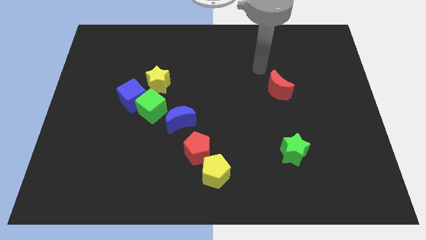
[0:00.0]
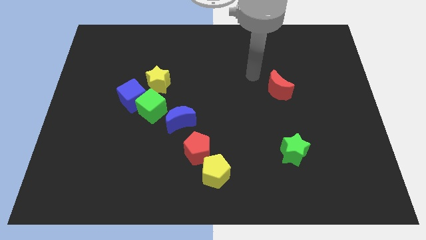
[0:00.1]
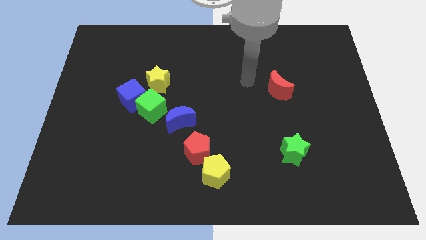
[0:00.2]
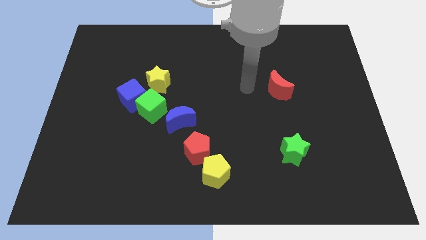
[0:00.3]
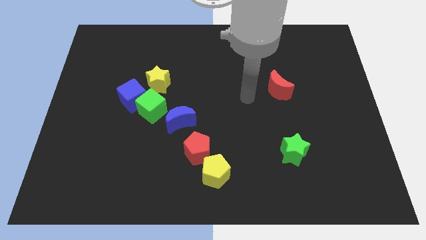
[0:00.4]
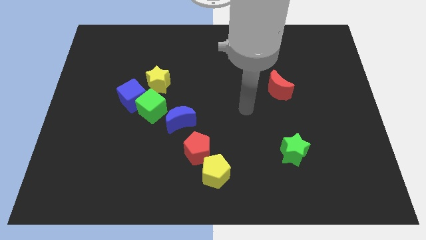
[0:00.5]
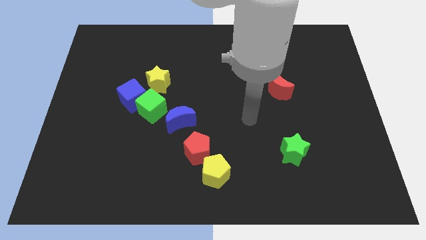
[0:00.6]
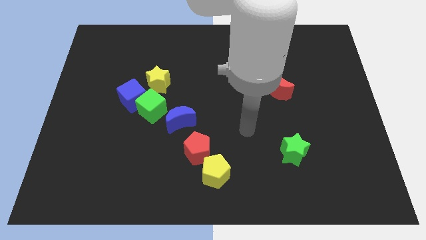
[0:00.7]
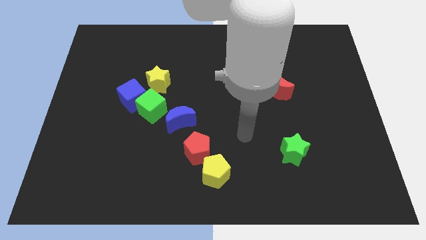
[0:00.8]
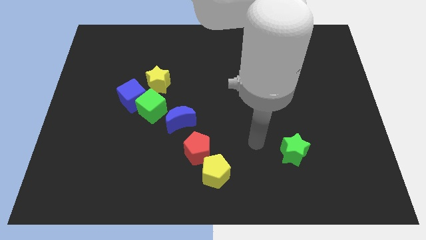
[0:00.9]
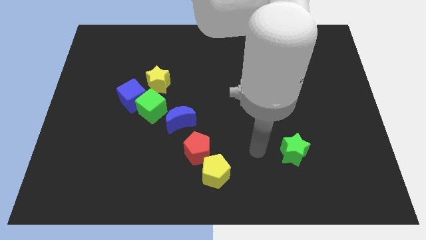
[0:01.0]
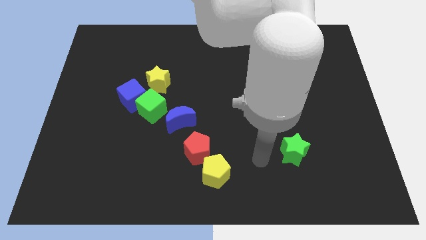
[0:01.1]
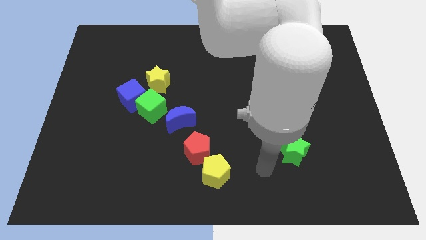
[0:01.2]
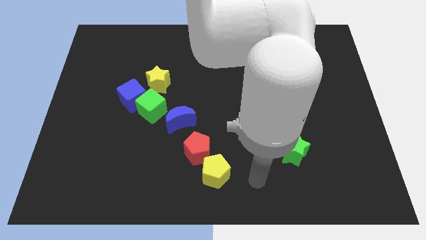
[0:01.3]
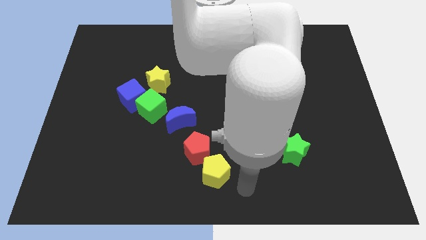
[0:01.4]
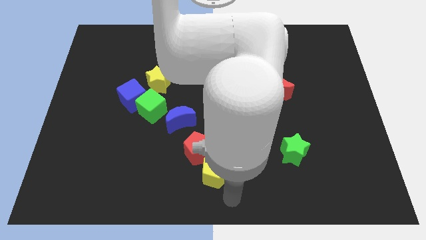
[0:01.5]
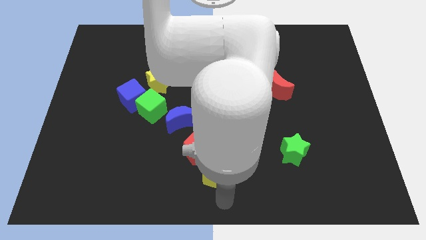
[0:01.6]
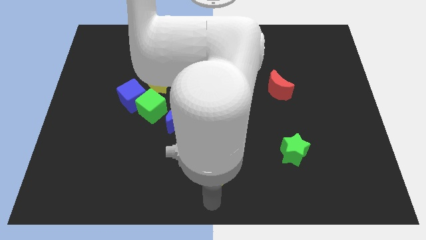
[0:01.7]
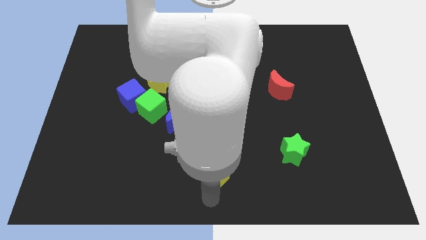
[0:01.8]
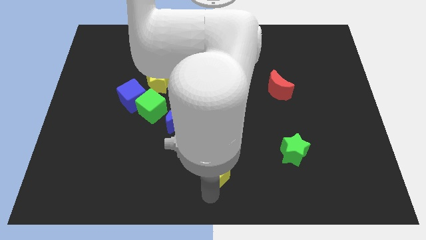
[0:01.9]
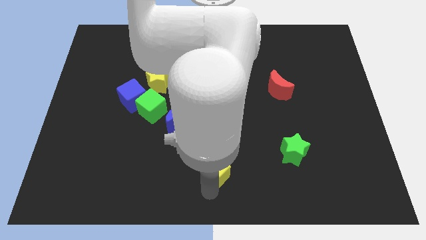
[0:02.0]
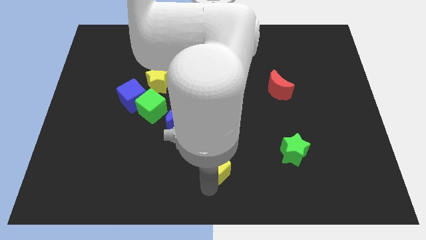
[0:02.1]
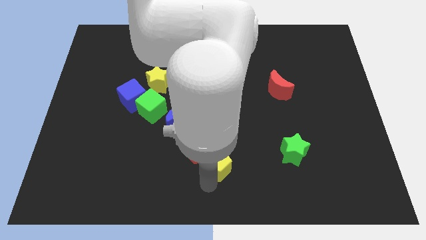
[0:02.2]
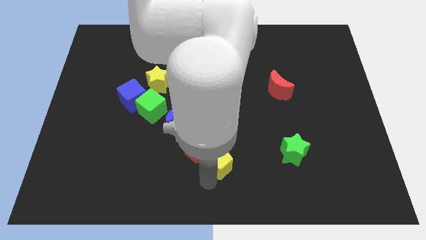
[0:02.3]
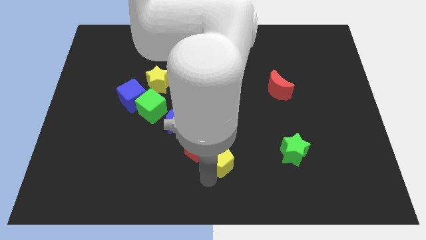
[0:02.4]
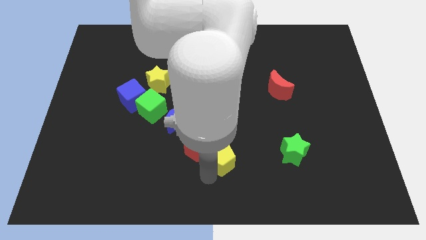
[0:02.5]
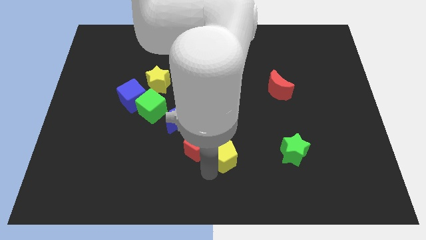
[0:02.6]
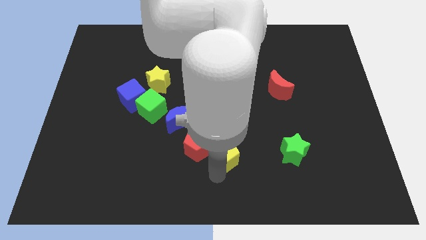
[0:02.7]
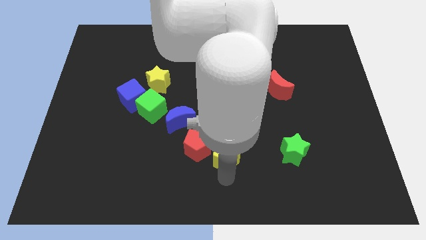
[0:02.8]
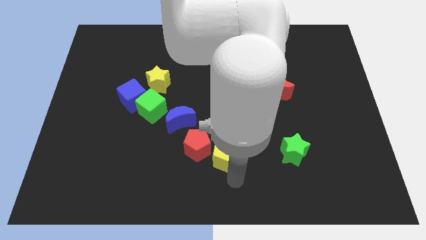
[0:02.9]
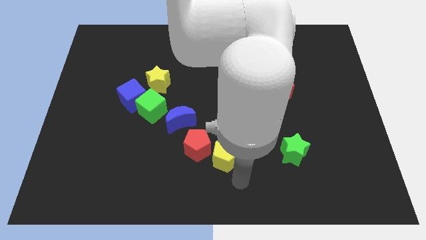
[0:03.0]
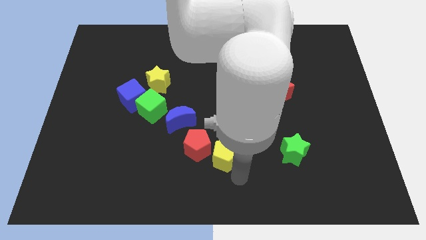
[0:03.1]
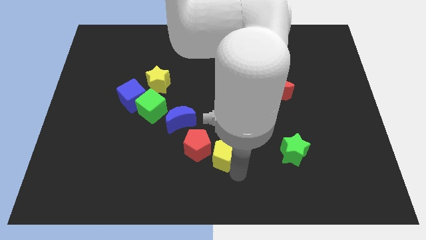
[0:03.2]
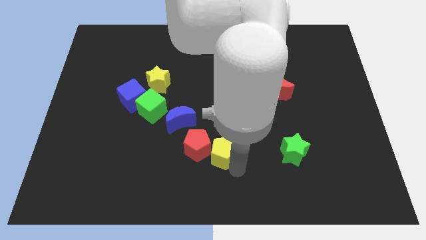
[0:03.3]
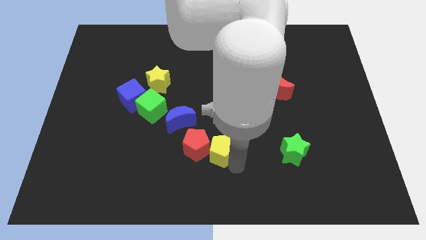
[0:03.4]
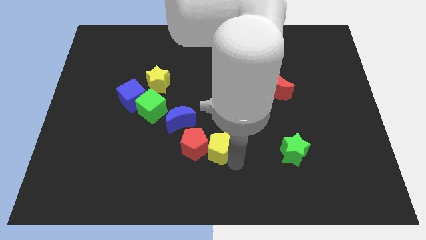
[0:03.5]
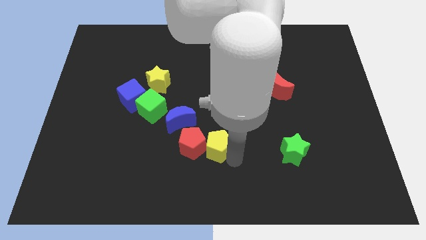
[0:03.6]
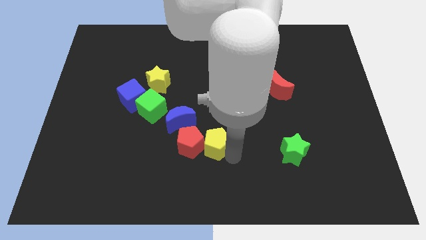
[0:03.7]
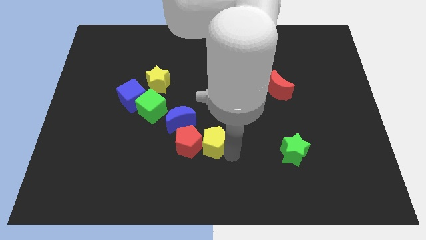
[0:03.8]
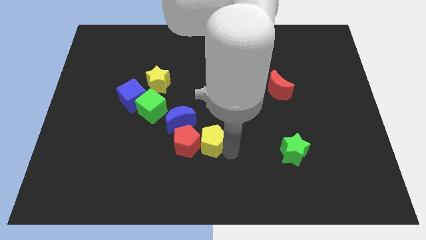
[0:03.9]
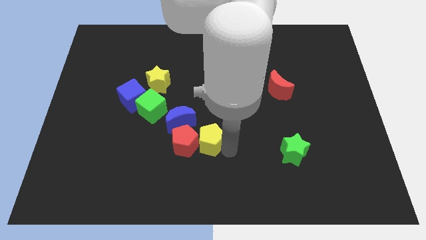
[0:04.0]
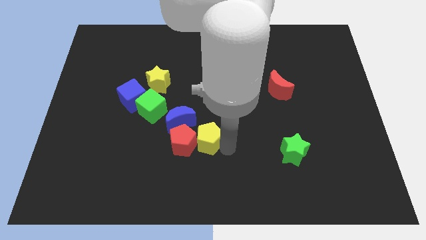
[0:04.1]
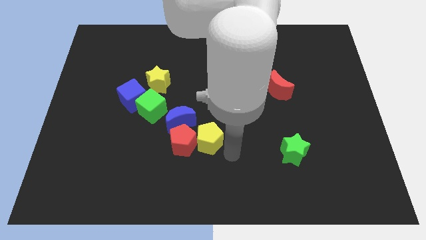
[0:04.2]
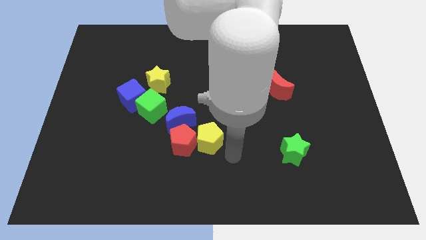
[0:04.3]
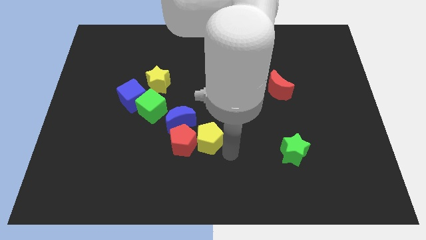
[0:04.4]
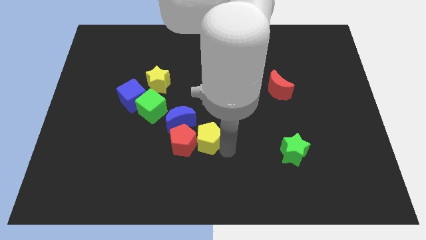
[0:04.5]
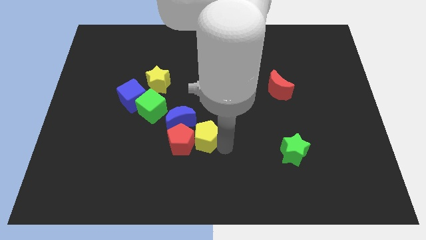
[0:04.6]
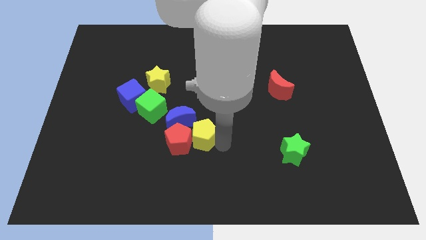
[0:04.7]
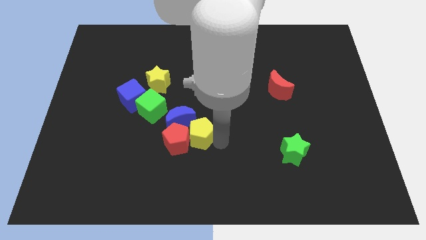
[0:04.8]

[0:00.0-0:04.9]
put the yellow pentagon next to the blue moon

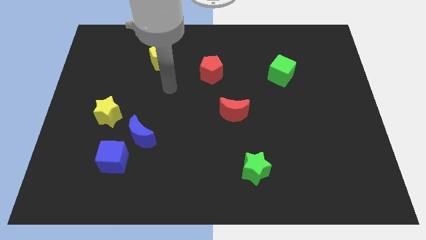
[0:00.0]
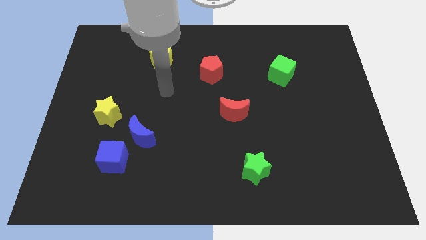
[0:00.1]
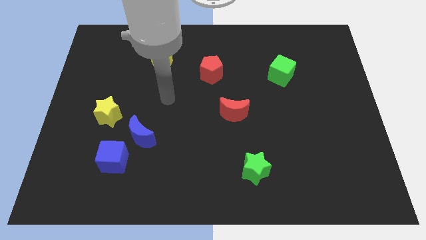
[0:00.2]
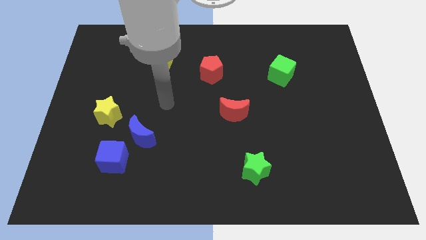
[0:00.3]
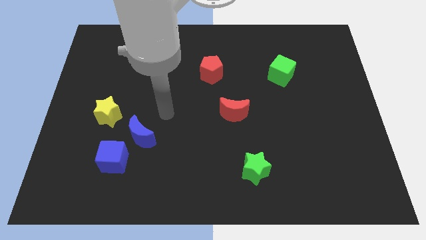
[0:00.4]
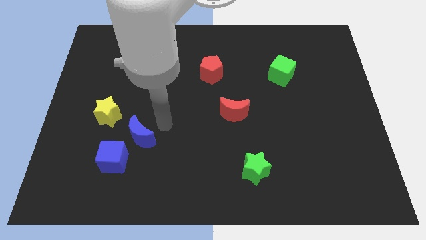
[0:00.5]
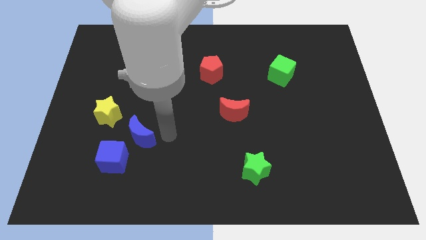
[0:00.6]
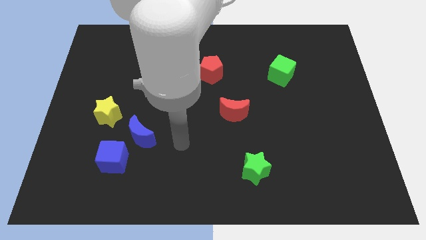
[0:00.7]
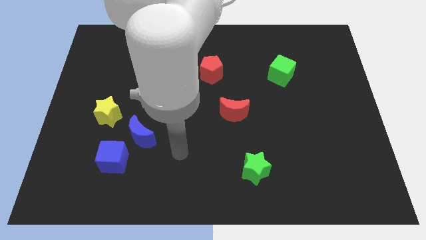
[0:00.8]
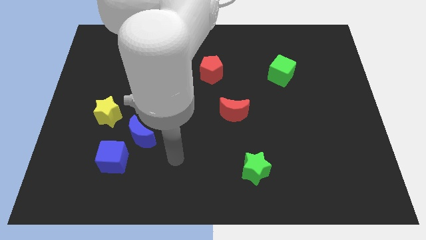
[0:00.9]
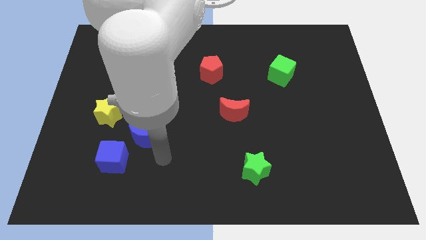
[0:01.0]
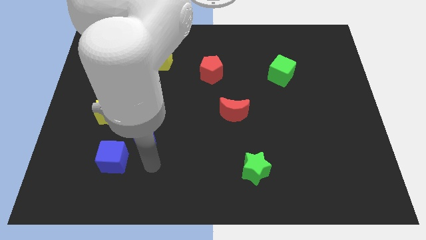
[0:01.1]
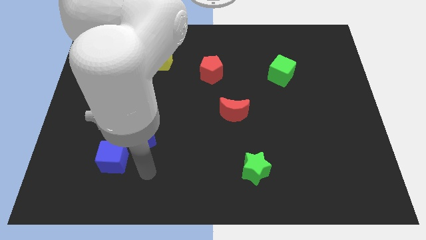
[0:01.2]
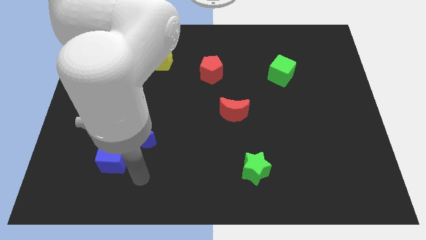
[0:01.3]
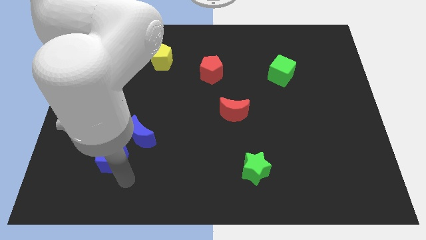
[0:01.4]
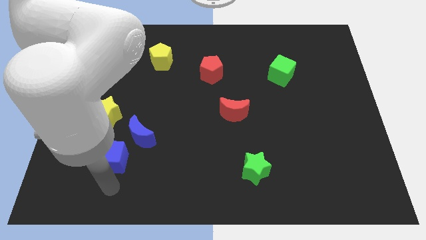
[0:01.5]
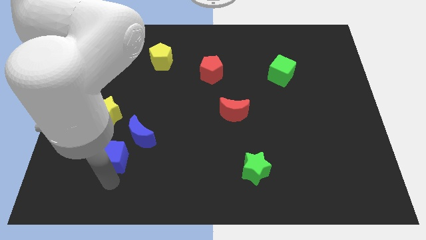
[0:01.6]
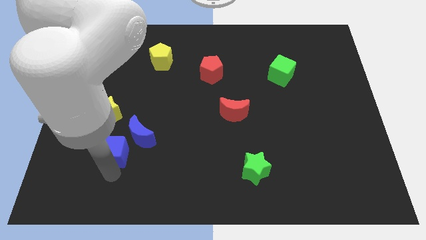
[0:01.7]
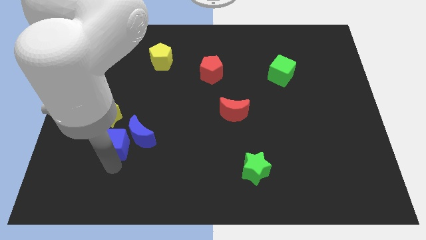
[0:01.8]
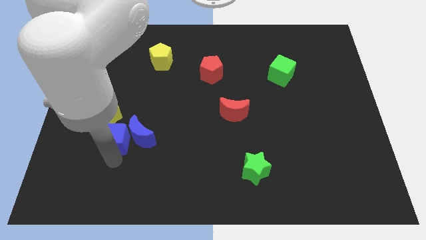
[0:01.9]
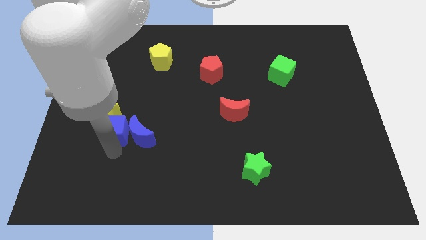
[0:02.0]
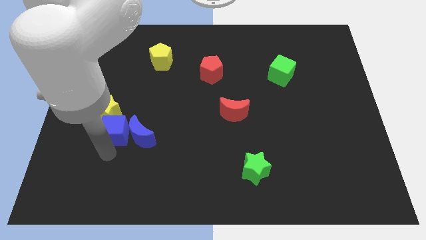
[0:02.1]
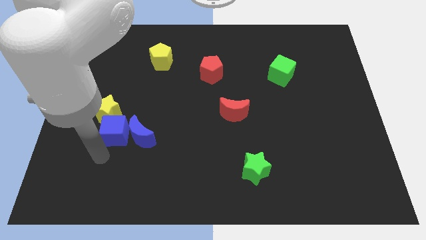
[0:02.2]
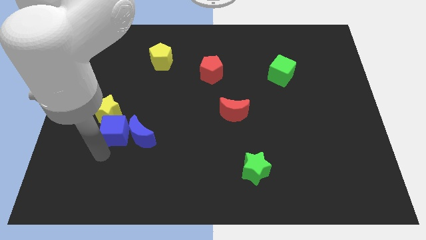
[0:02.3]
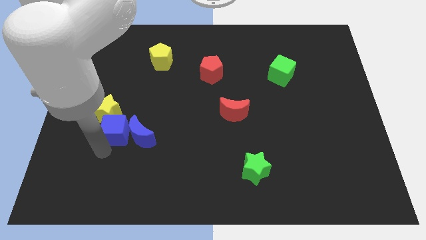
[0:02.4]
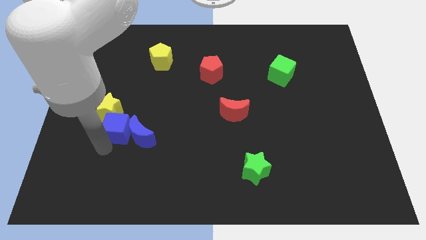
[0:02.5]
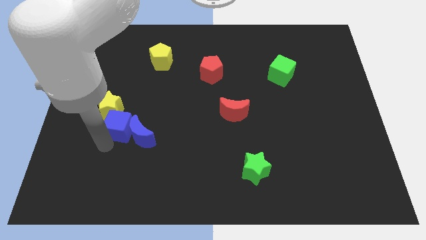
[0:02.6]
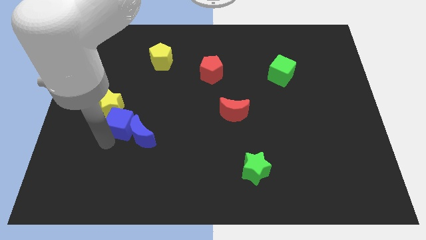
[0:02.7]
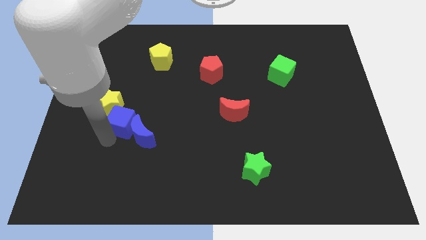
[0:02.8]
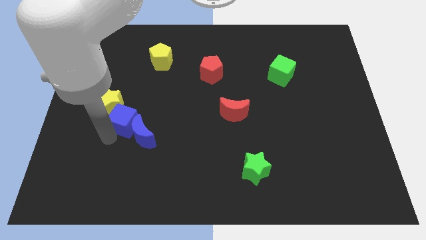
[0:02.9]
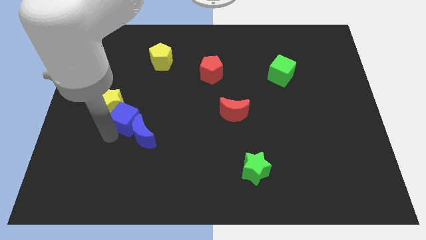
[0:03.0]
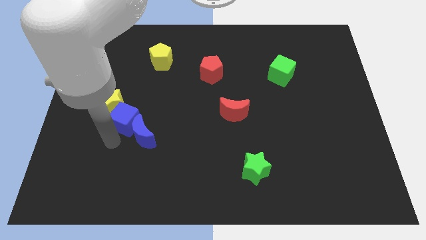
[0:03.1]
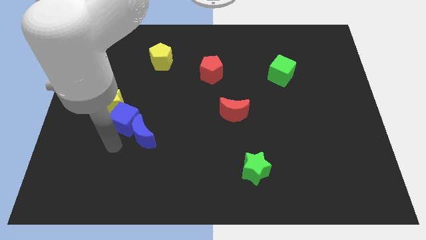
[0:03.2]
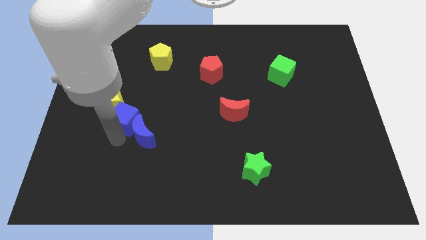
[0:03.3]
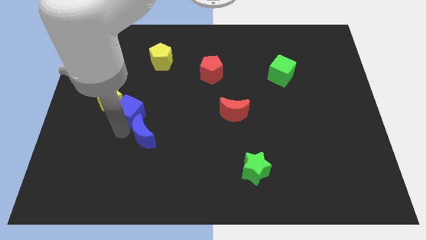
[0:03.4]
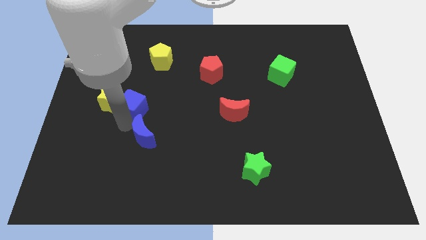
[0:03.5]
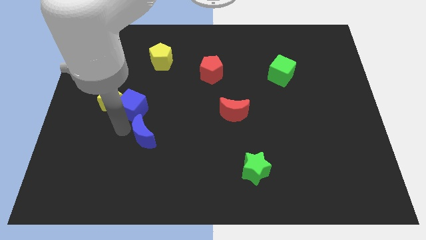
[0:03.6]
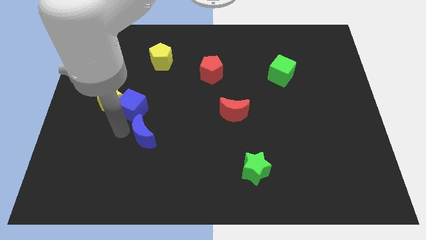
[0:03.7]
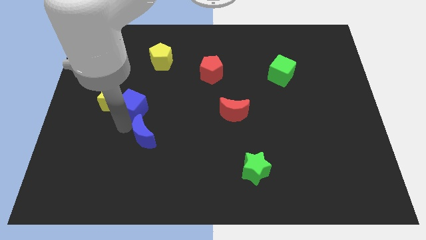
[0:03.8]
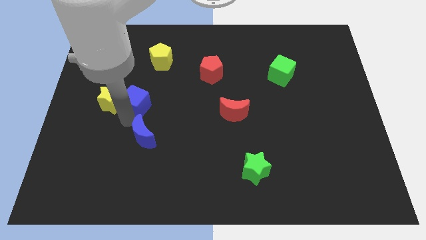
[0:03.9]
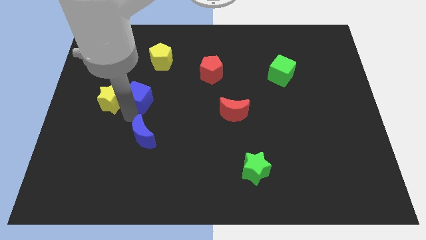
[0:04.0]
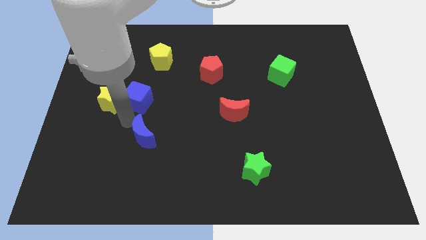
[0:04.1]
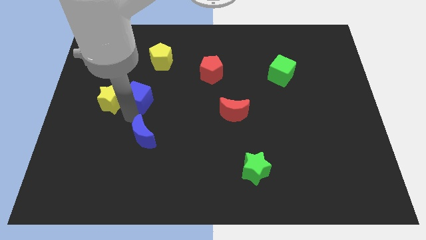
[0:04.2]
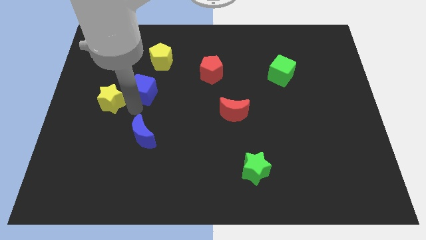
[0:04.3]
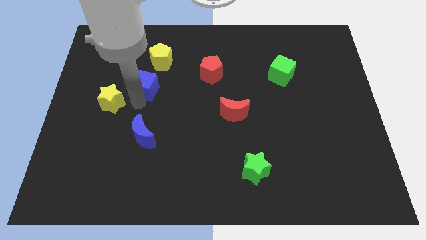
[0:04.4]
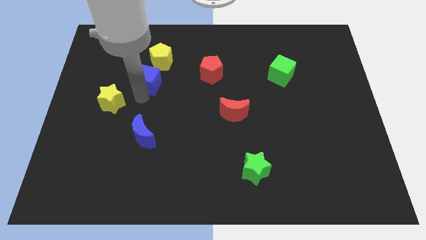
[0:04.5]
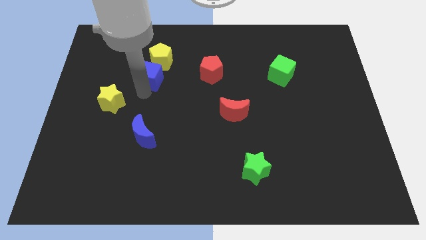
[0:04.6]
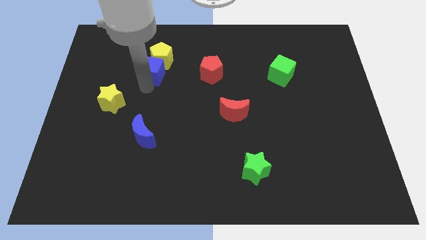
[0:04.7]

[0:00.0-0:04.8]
move the blue cube next to the yellow pentagon
